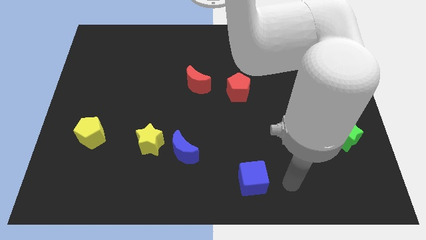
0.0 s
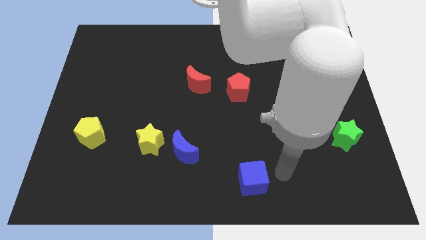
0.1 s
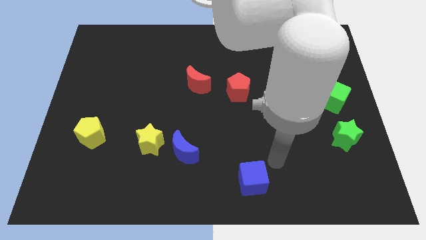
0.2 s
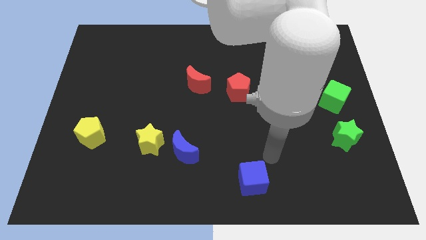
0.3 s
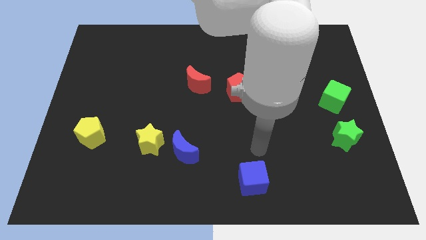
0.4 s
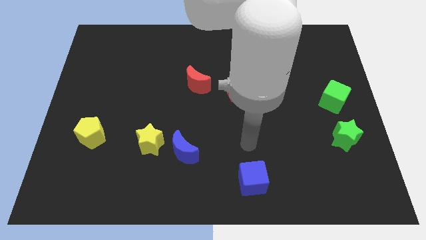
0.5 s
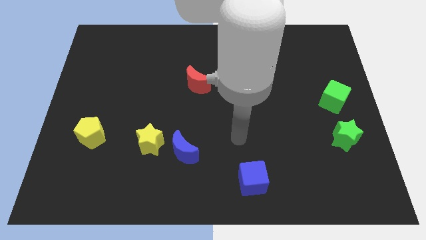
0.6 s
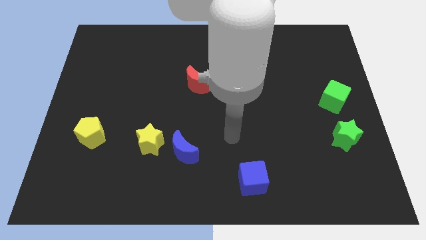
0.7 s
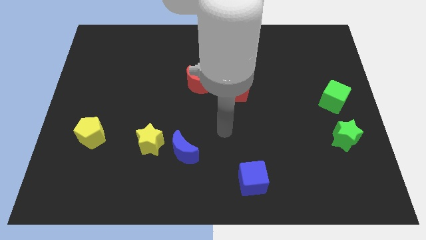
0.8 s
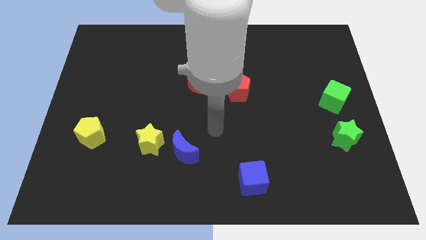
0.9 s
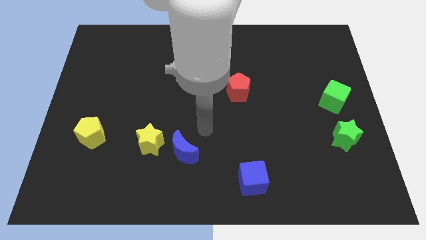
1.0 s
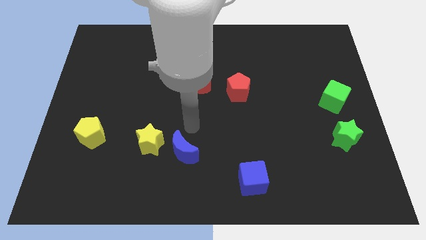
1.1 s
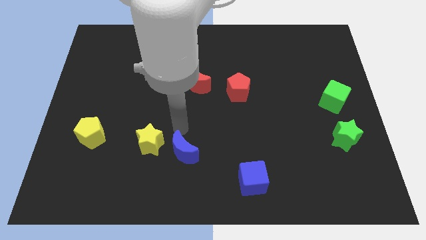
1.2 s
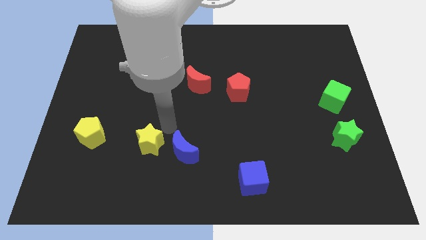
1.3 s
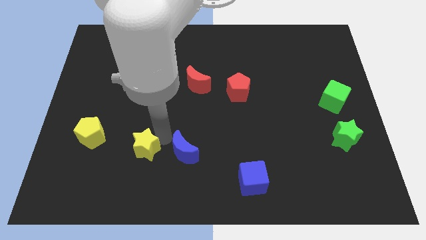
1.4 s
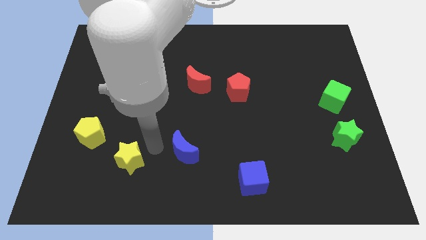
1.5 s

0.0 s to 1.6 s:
pull the blue moon apart from the yellow star

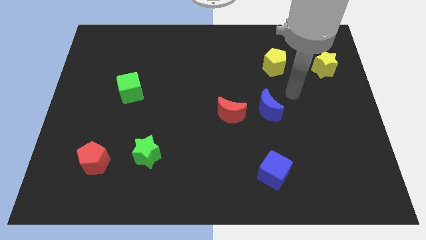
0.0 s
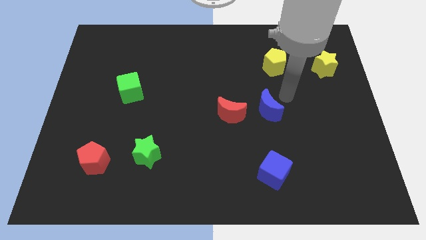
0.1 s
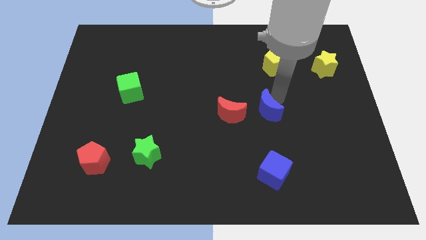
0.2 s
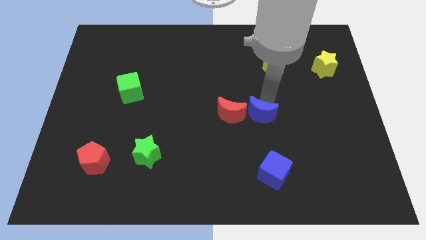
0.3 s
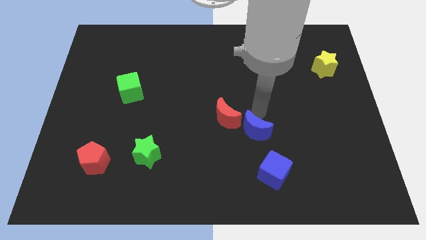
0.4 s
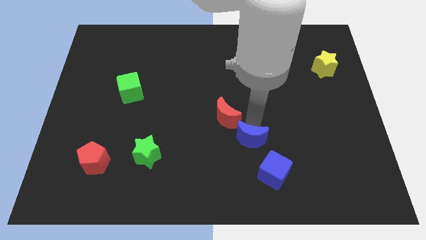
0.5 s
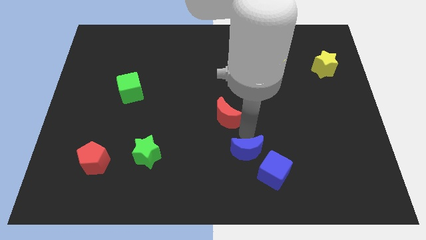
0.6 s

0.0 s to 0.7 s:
separate the red moon from the blue moon

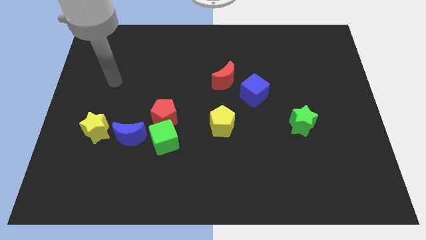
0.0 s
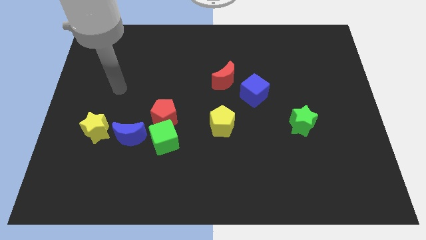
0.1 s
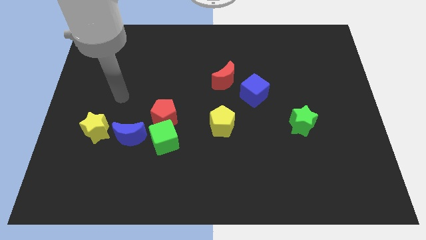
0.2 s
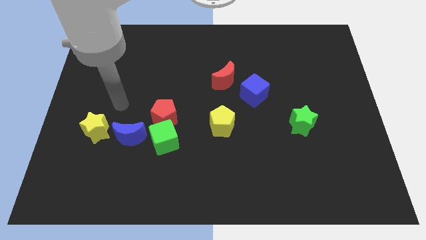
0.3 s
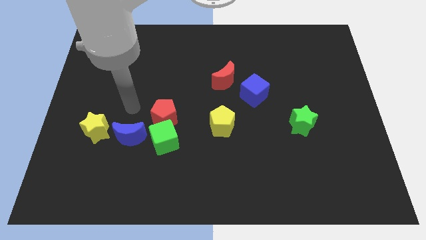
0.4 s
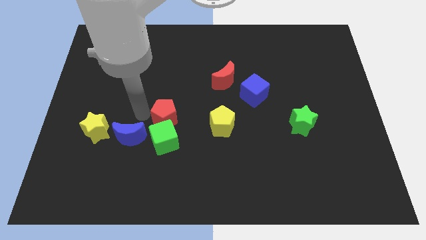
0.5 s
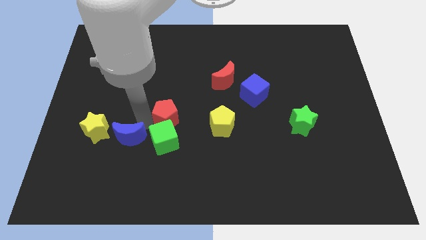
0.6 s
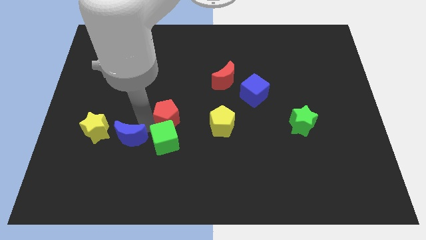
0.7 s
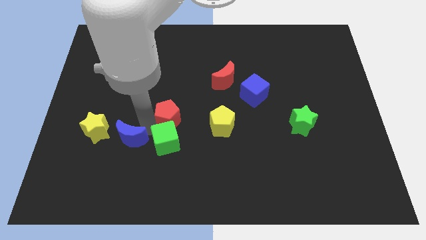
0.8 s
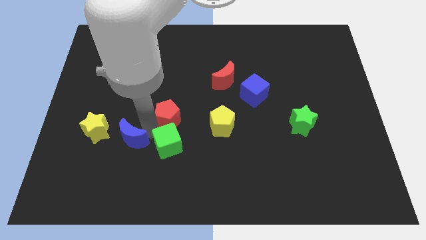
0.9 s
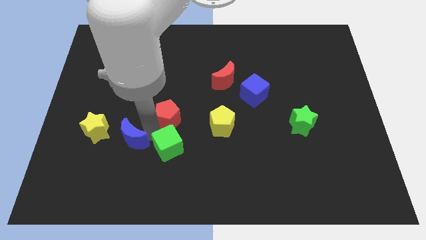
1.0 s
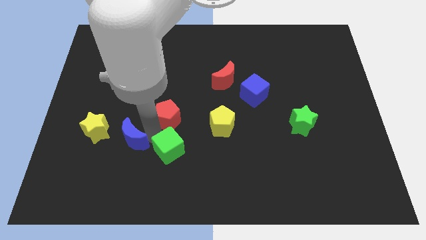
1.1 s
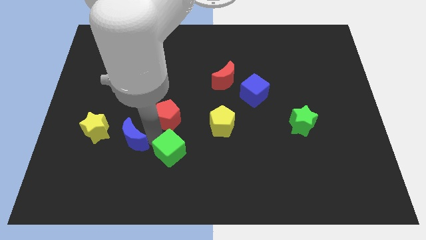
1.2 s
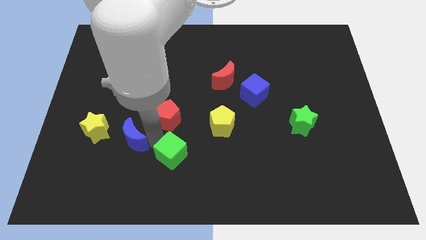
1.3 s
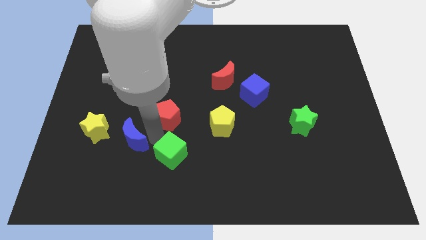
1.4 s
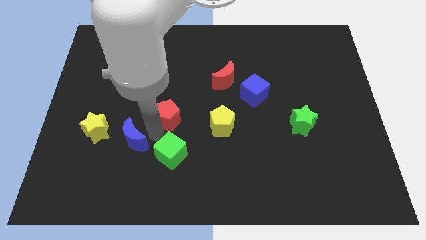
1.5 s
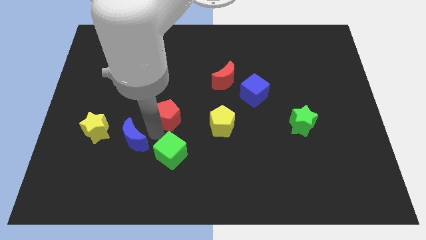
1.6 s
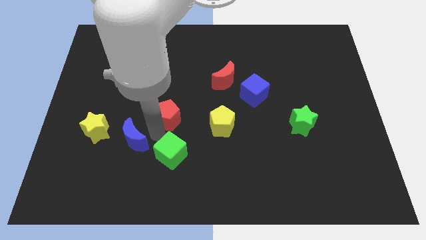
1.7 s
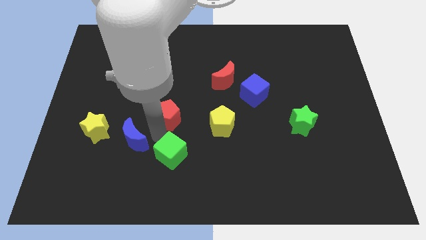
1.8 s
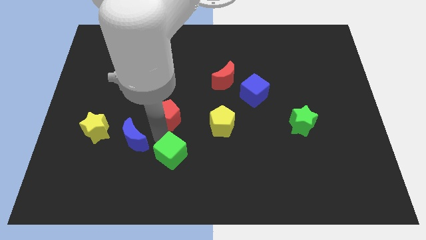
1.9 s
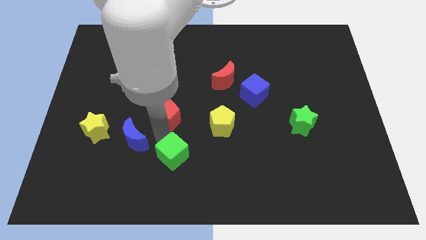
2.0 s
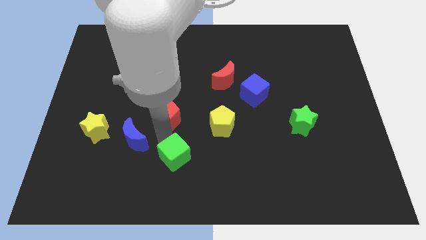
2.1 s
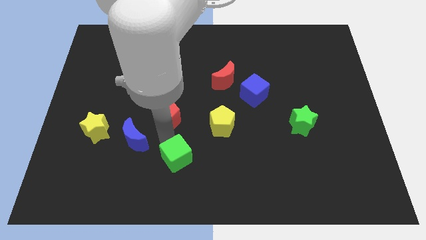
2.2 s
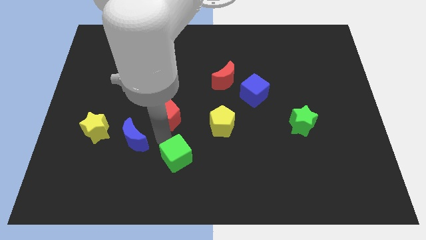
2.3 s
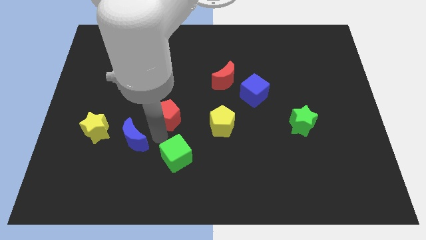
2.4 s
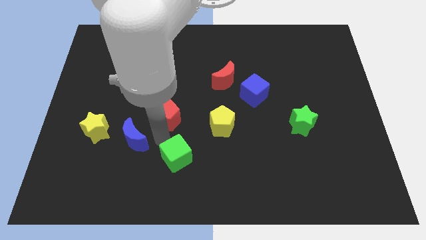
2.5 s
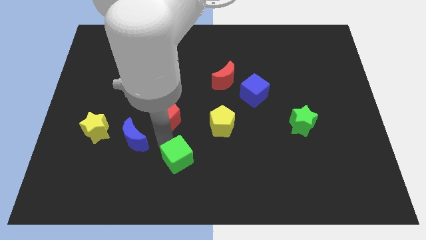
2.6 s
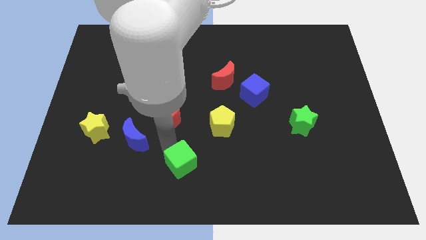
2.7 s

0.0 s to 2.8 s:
separate the green cube from the red pentagon and blue moon

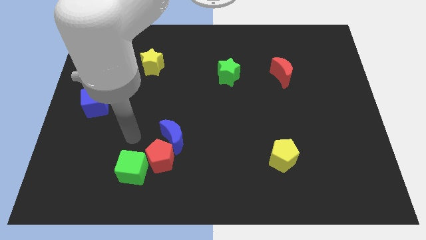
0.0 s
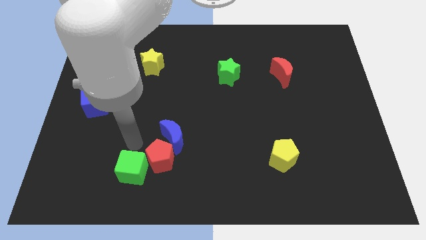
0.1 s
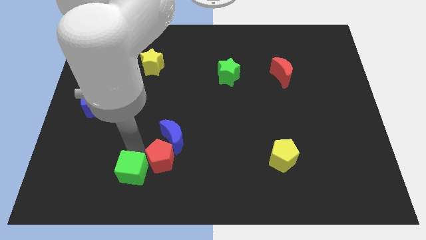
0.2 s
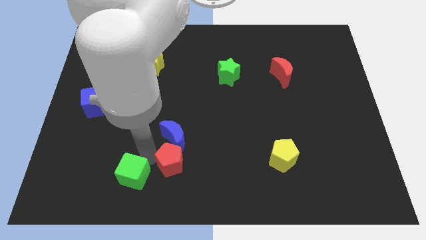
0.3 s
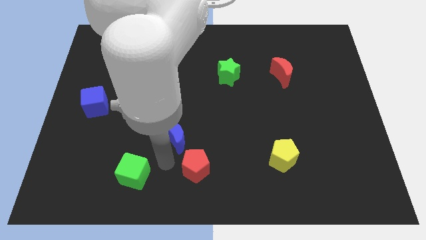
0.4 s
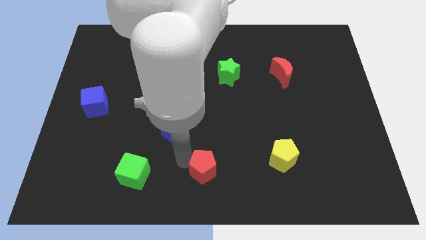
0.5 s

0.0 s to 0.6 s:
move the blue moon away from the red pentagon

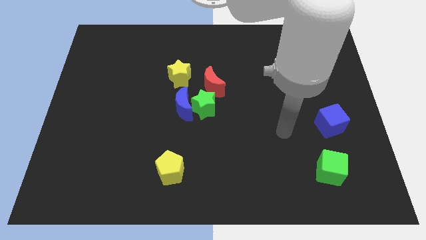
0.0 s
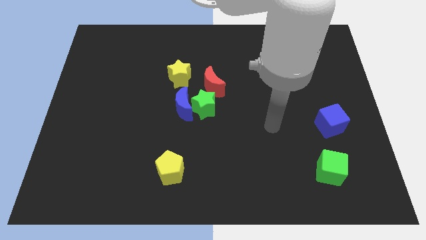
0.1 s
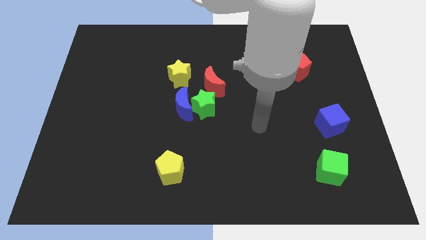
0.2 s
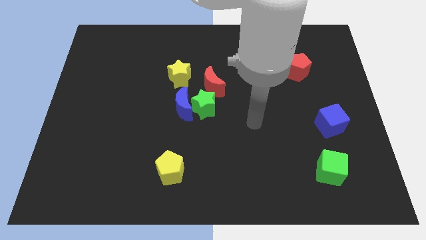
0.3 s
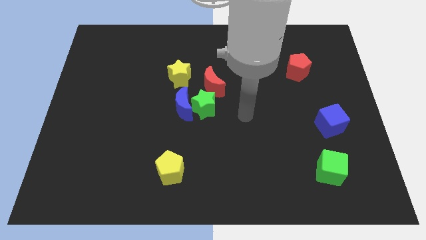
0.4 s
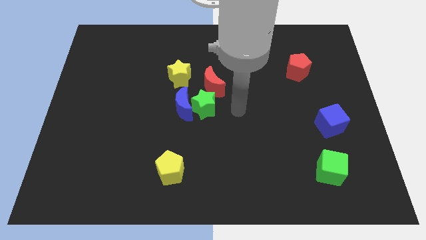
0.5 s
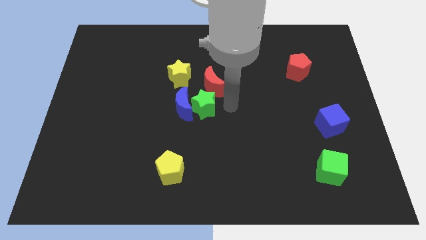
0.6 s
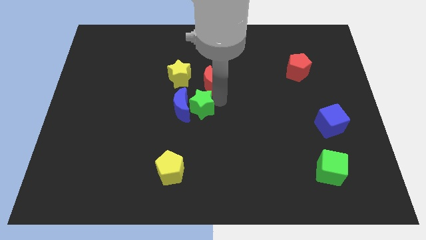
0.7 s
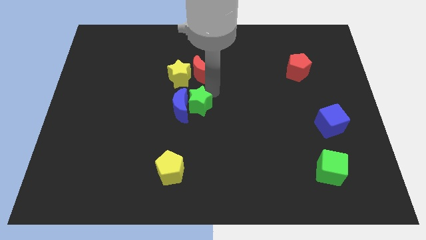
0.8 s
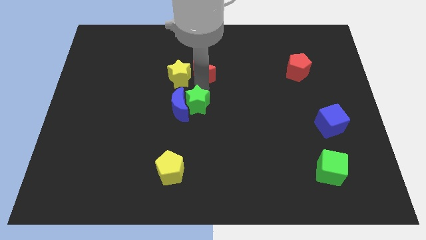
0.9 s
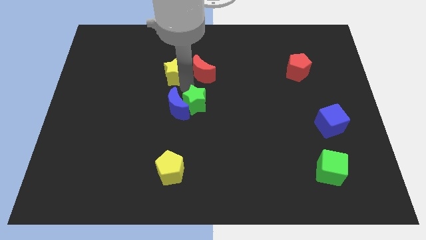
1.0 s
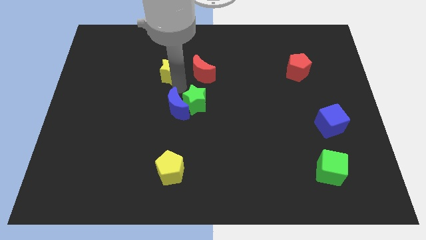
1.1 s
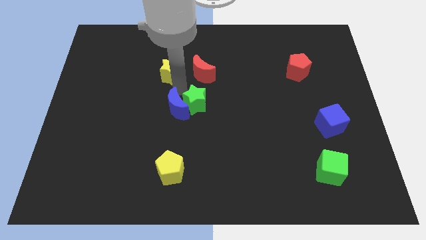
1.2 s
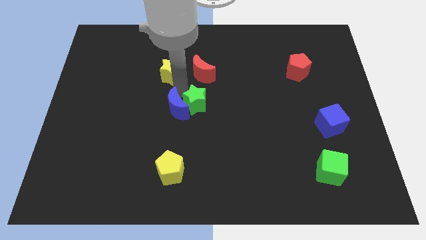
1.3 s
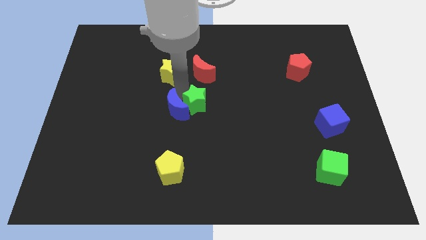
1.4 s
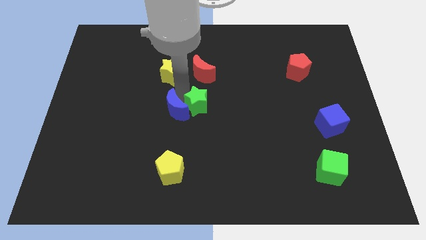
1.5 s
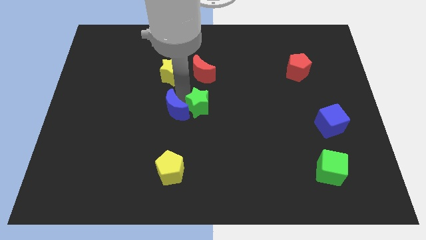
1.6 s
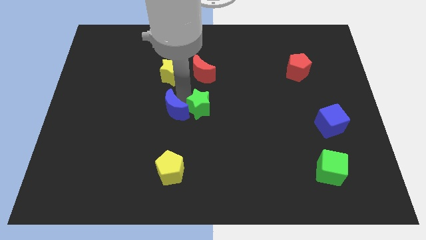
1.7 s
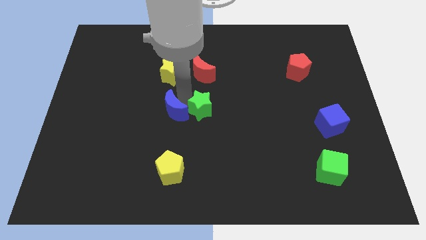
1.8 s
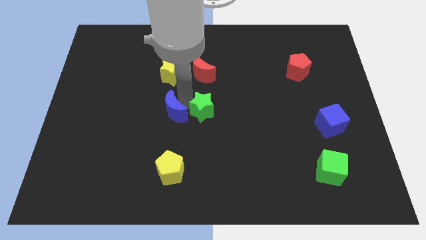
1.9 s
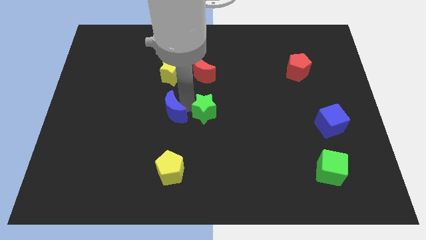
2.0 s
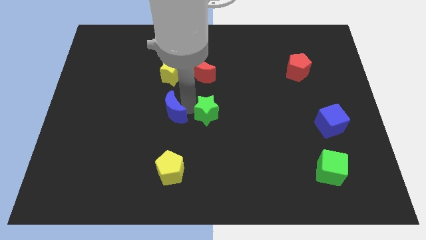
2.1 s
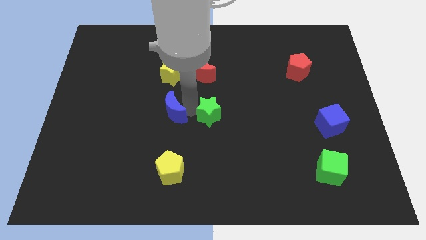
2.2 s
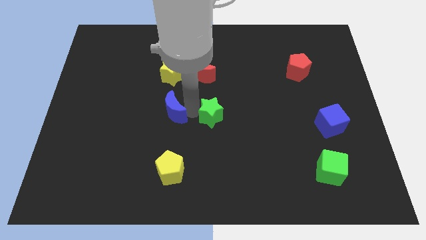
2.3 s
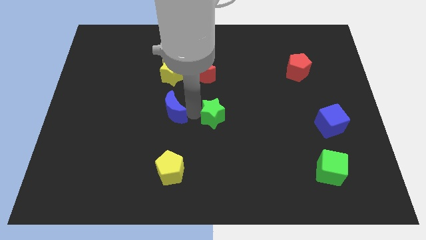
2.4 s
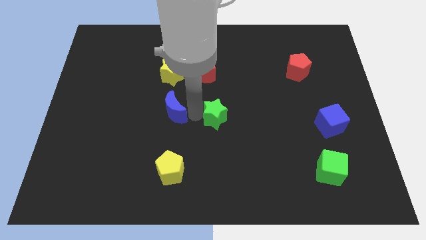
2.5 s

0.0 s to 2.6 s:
pull the green star apart from the blue moon and red moon

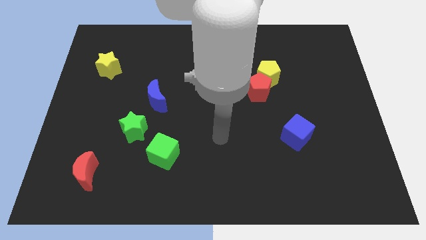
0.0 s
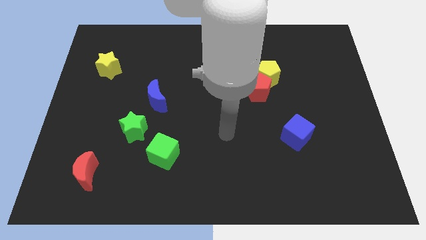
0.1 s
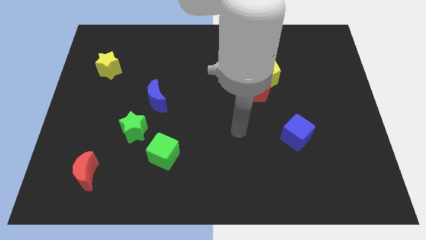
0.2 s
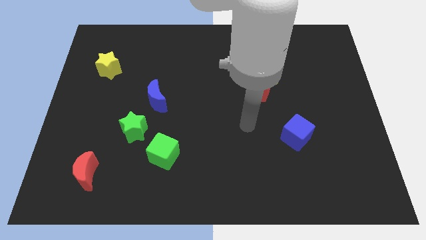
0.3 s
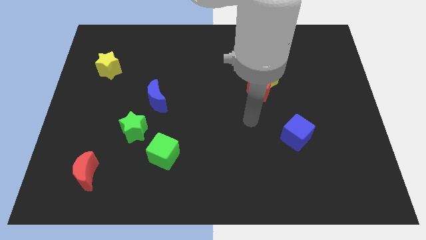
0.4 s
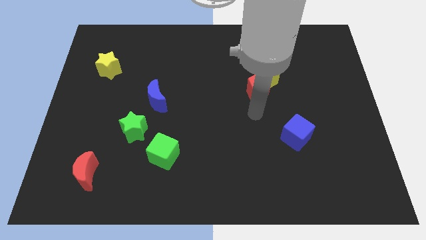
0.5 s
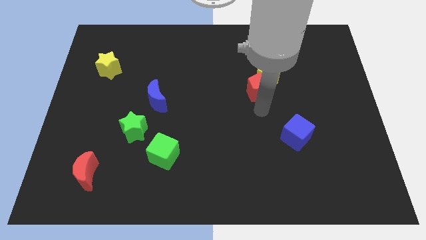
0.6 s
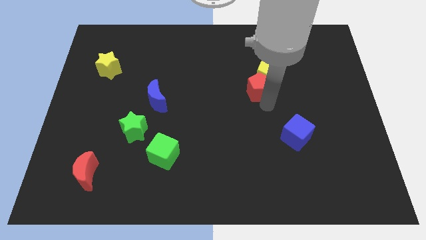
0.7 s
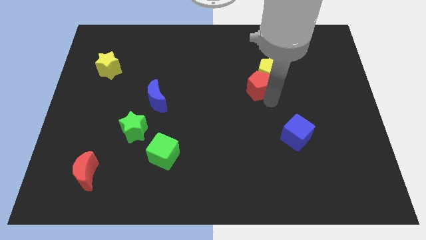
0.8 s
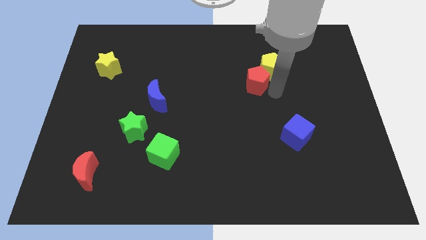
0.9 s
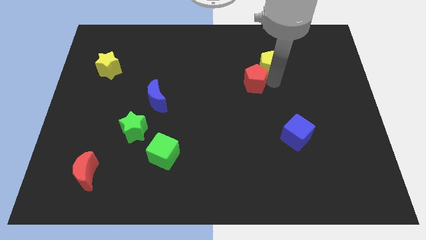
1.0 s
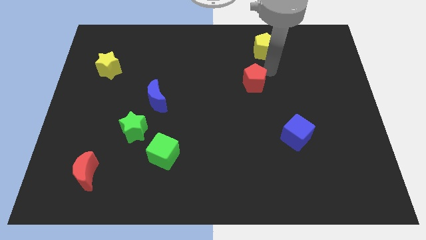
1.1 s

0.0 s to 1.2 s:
separate the red pentagon from the yellow pentagon
